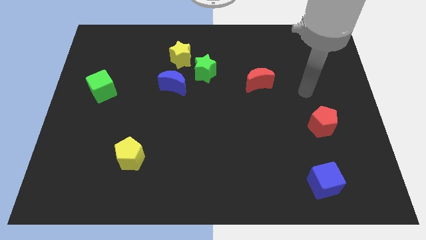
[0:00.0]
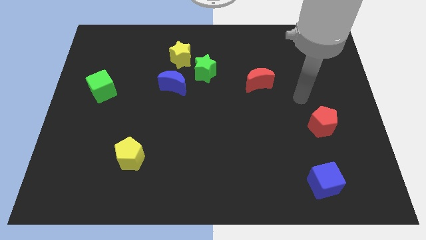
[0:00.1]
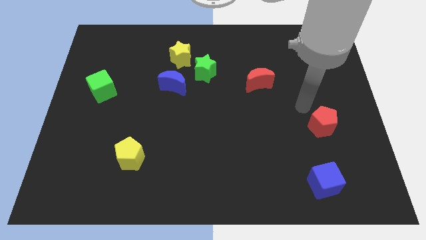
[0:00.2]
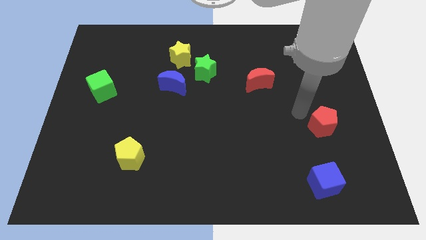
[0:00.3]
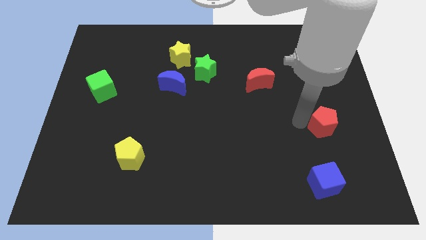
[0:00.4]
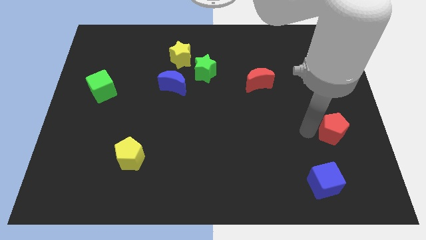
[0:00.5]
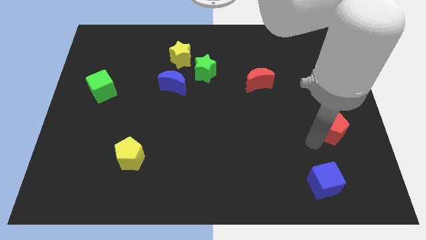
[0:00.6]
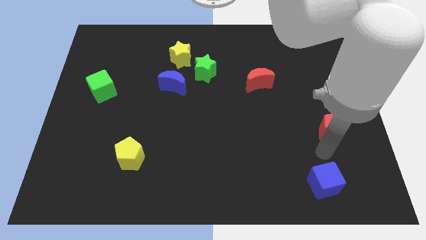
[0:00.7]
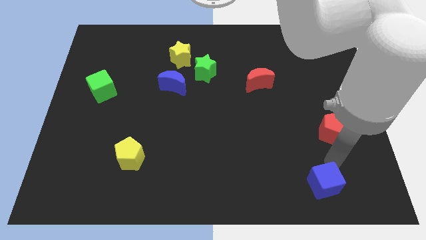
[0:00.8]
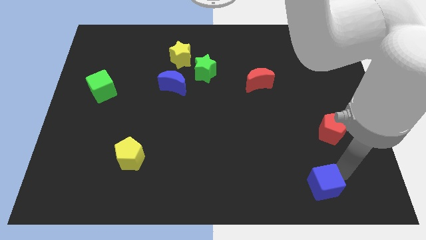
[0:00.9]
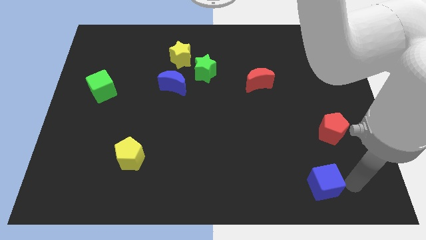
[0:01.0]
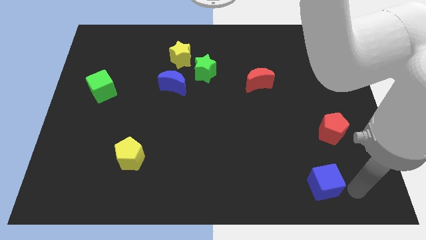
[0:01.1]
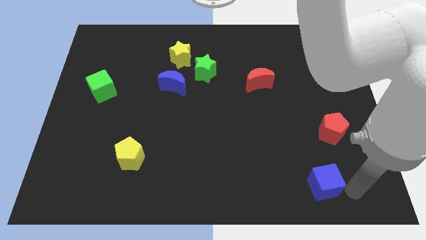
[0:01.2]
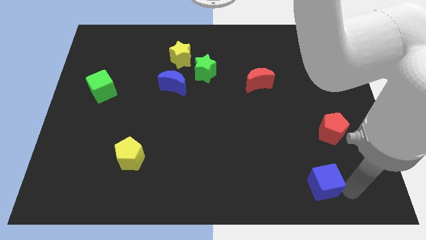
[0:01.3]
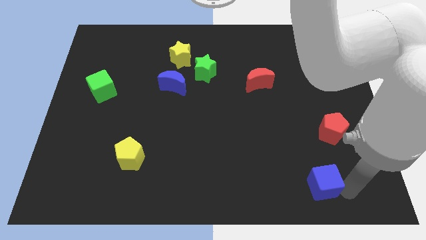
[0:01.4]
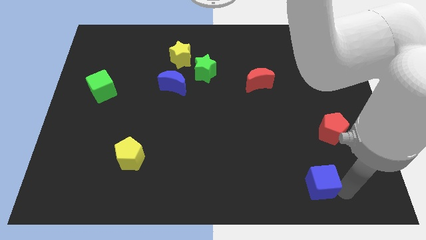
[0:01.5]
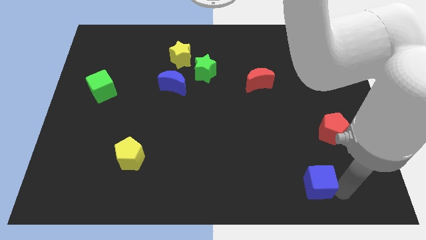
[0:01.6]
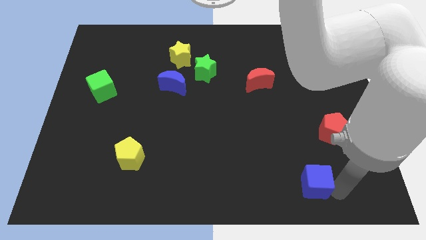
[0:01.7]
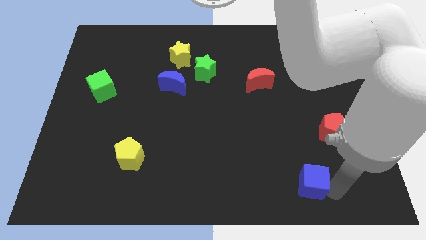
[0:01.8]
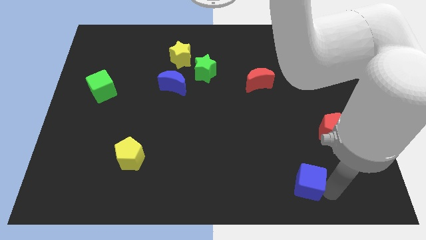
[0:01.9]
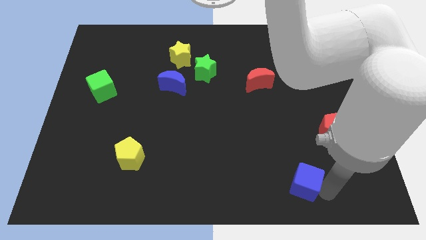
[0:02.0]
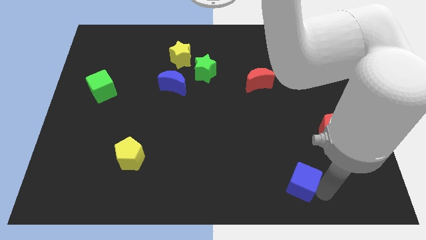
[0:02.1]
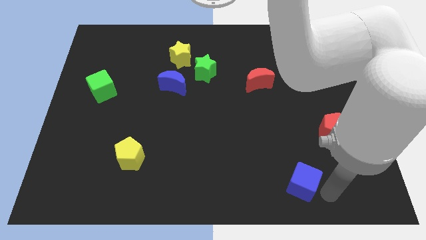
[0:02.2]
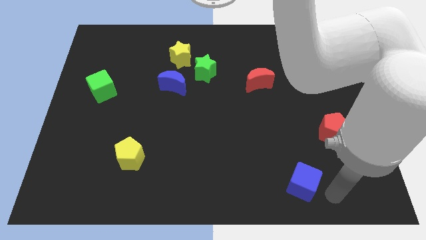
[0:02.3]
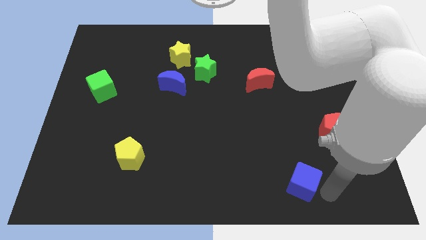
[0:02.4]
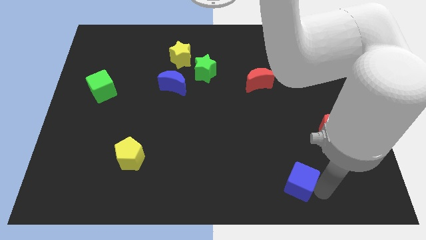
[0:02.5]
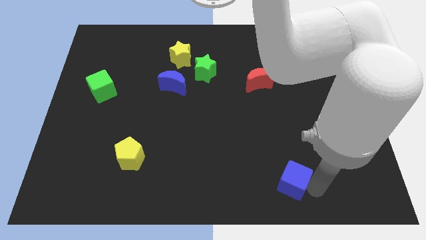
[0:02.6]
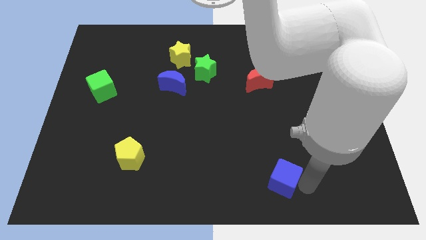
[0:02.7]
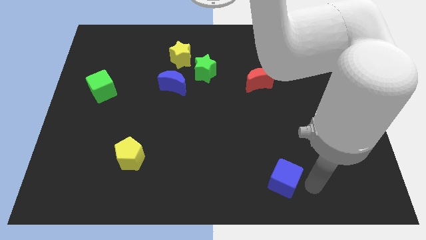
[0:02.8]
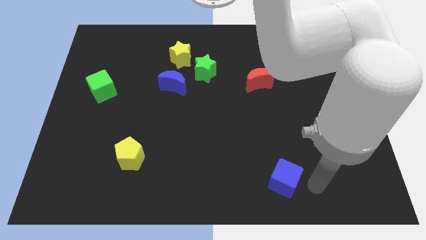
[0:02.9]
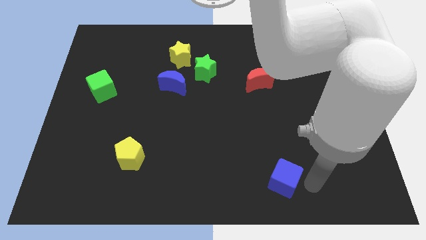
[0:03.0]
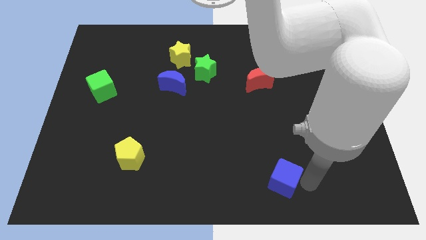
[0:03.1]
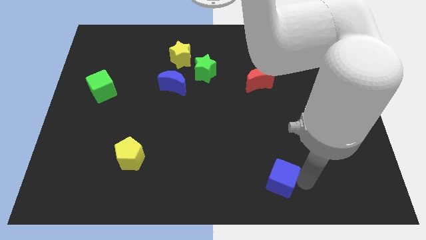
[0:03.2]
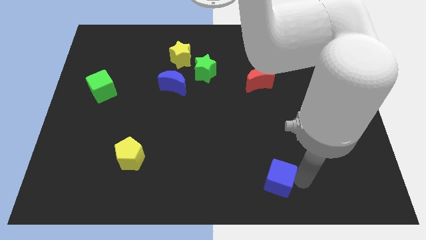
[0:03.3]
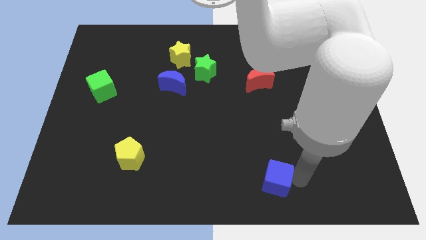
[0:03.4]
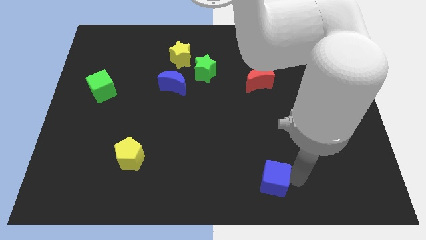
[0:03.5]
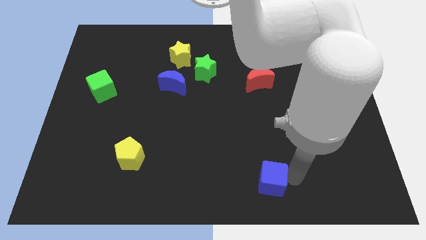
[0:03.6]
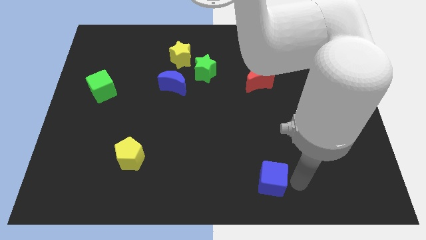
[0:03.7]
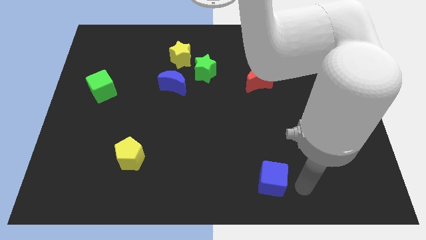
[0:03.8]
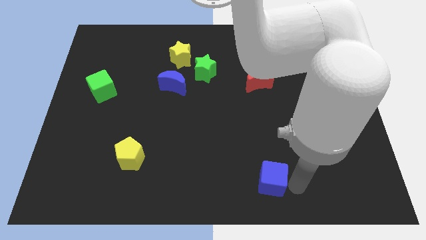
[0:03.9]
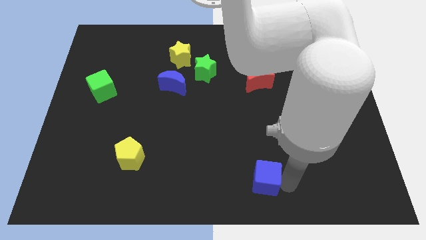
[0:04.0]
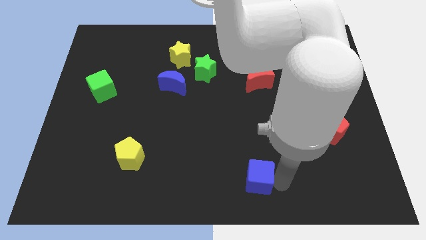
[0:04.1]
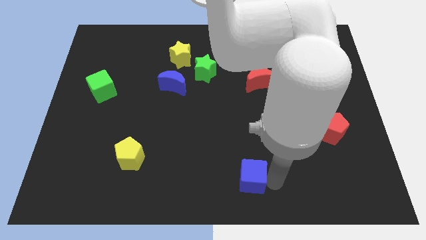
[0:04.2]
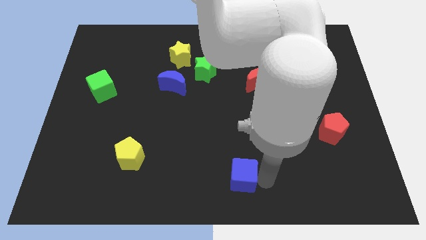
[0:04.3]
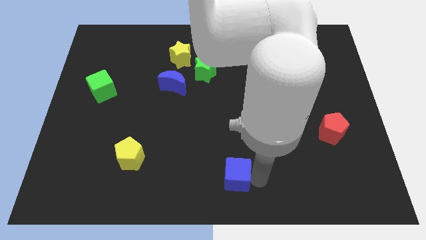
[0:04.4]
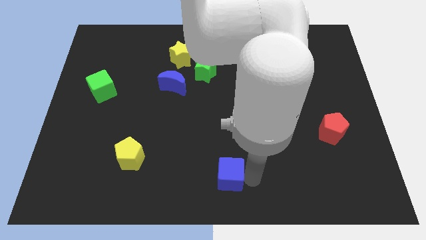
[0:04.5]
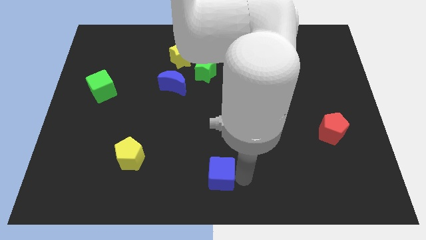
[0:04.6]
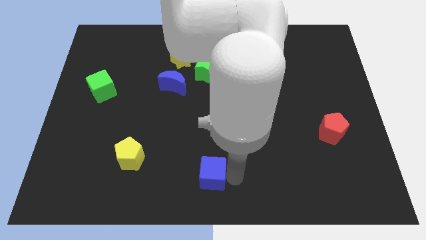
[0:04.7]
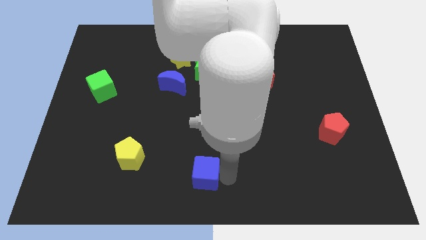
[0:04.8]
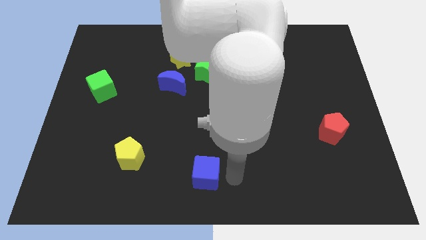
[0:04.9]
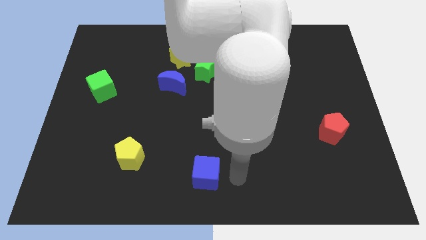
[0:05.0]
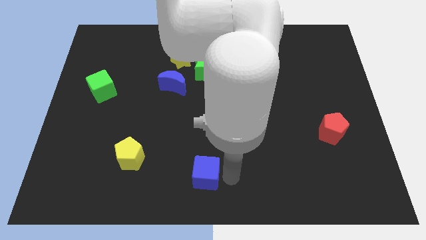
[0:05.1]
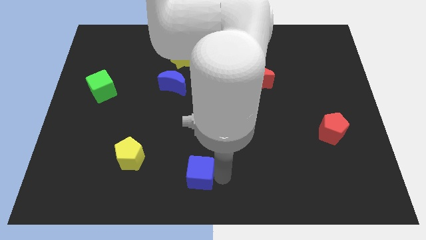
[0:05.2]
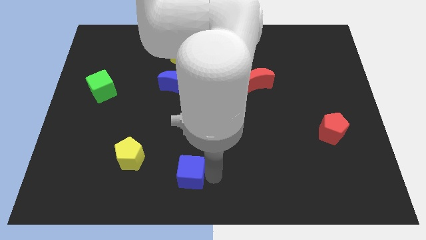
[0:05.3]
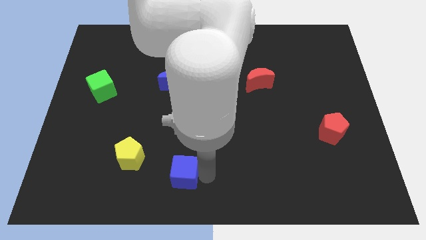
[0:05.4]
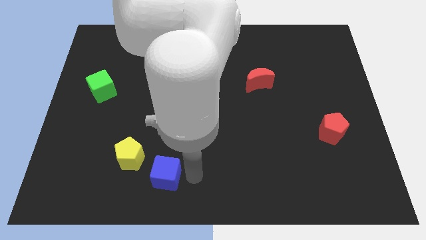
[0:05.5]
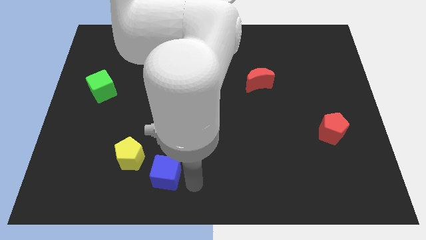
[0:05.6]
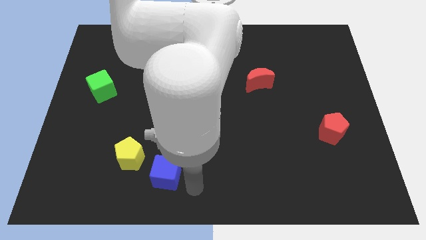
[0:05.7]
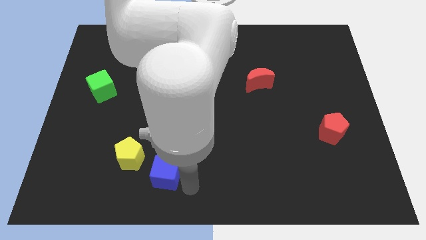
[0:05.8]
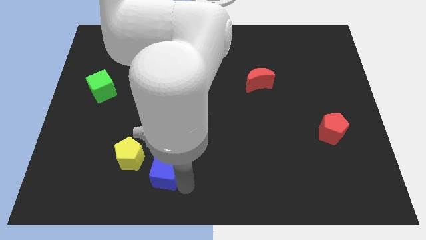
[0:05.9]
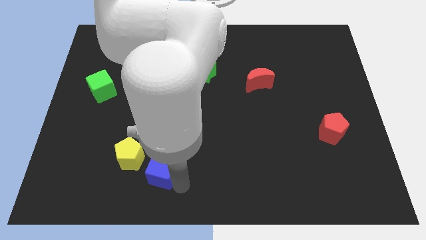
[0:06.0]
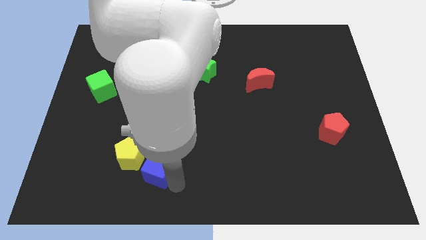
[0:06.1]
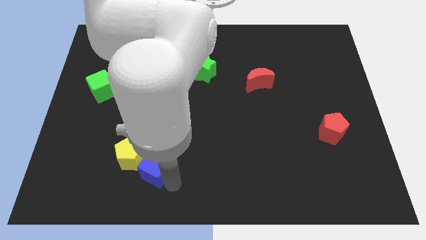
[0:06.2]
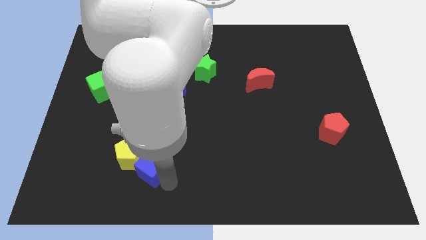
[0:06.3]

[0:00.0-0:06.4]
slide the blue cube next to the yellow pentagon

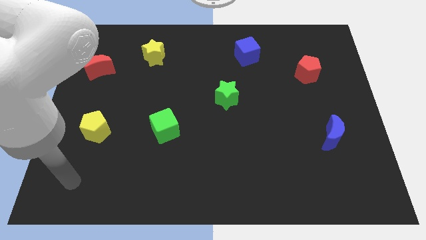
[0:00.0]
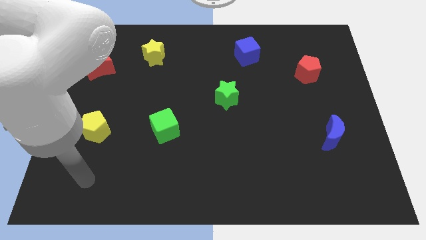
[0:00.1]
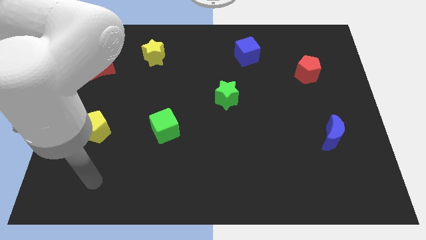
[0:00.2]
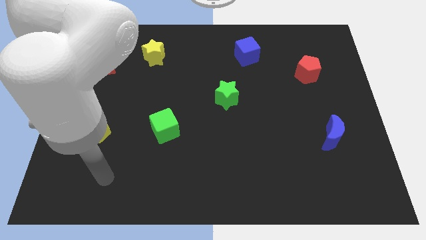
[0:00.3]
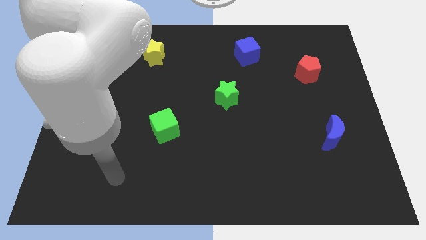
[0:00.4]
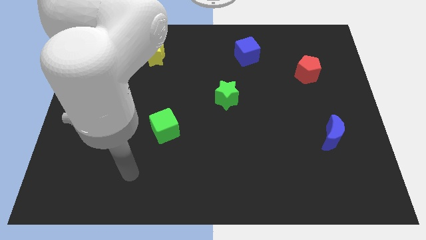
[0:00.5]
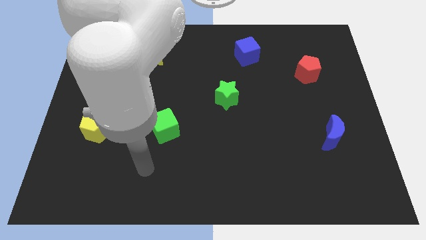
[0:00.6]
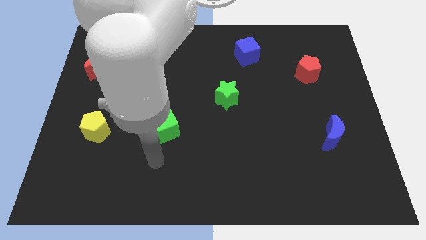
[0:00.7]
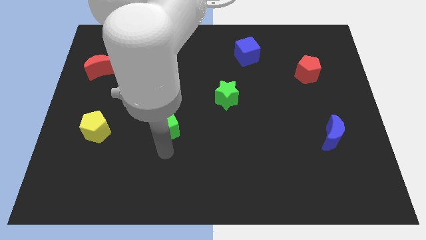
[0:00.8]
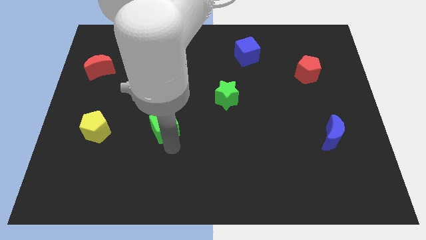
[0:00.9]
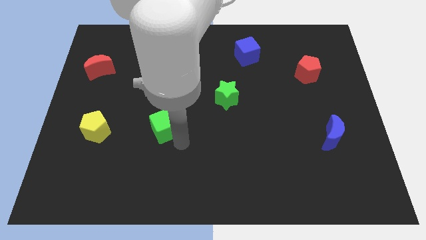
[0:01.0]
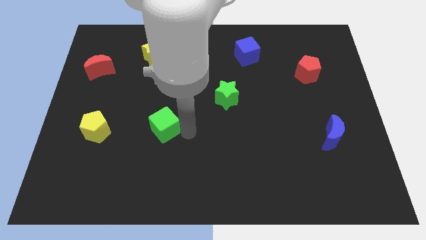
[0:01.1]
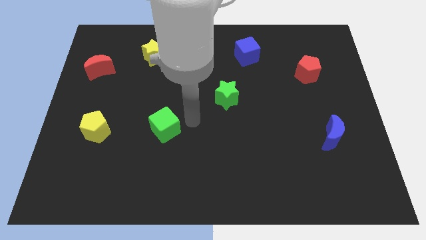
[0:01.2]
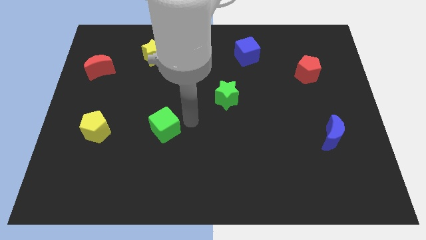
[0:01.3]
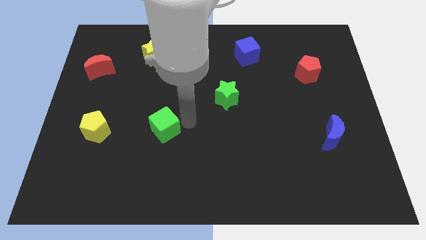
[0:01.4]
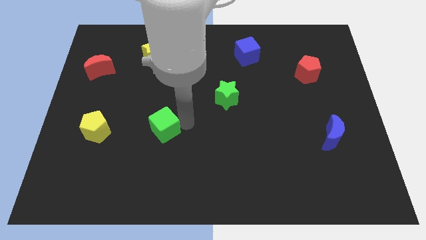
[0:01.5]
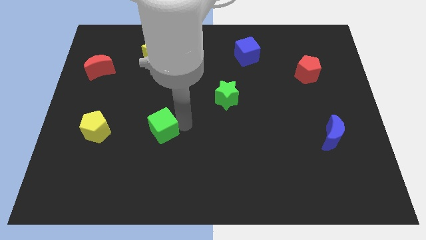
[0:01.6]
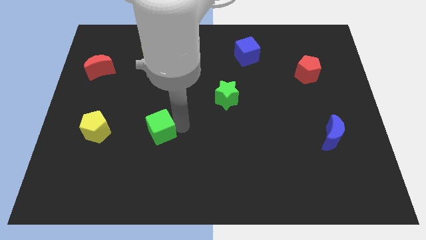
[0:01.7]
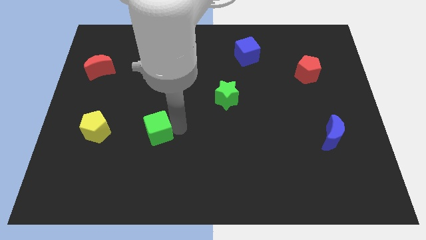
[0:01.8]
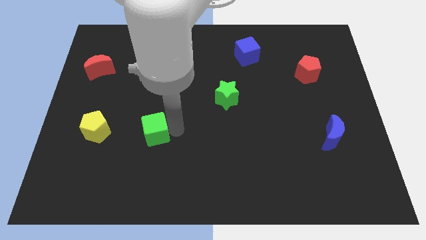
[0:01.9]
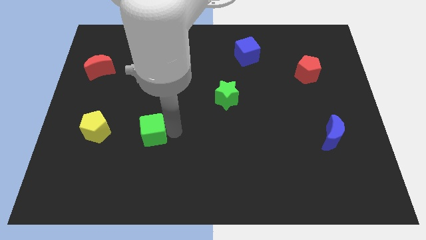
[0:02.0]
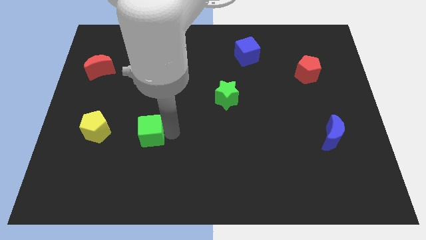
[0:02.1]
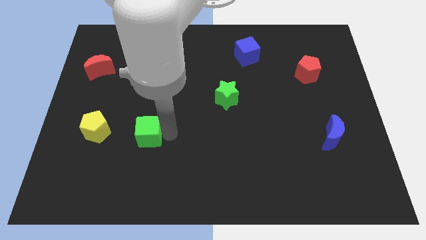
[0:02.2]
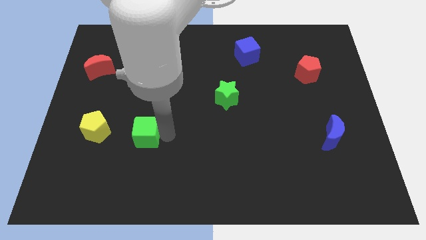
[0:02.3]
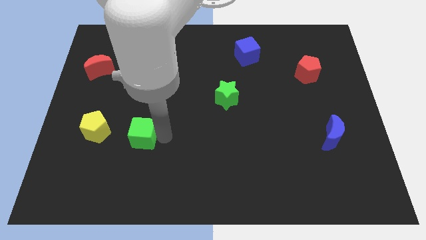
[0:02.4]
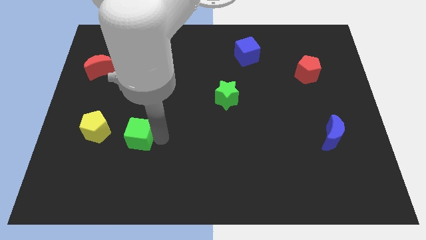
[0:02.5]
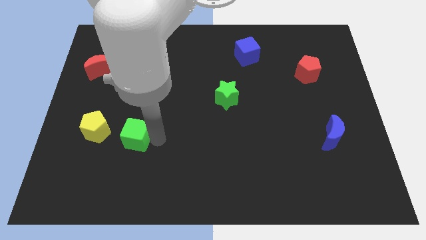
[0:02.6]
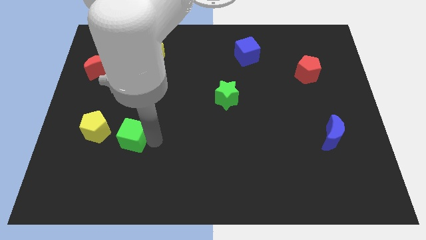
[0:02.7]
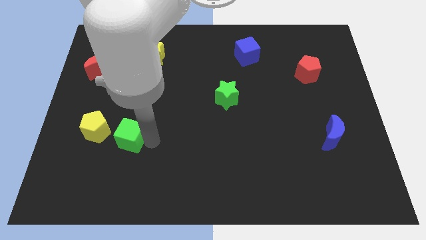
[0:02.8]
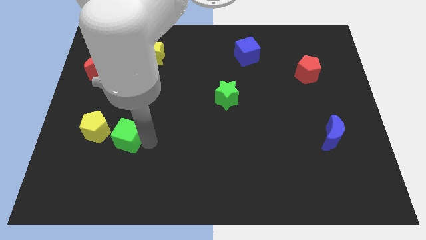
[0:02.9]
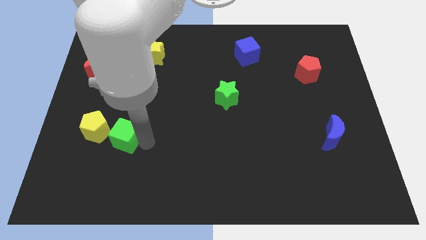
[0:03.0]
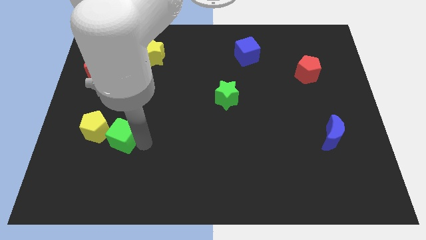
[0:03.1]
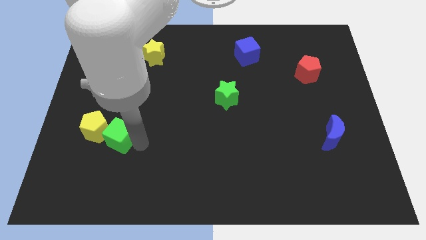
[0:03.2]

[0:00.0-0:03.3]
push the green cube next to the yellow pentagon
